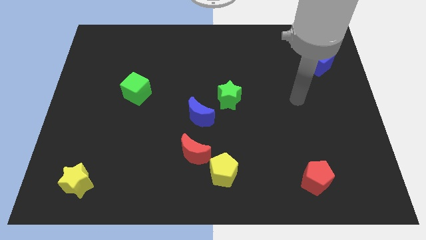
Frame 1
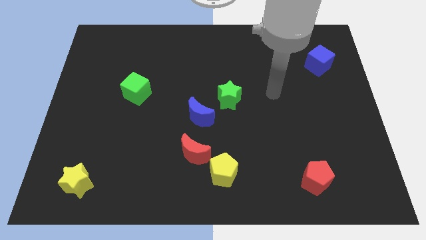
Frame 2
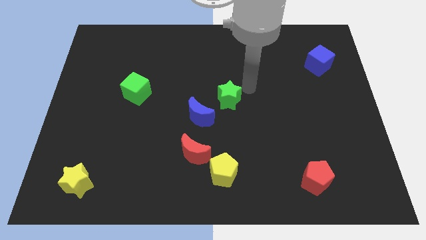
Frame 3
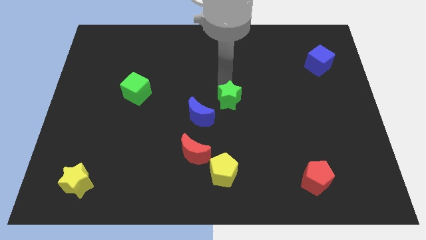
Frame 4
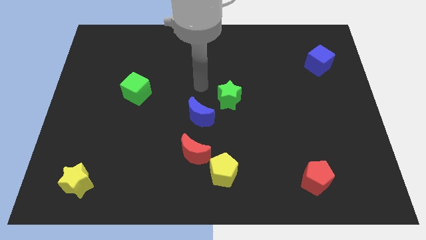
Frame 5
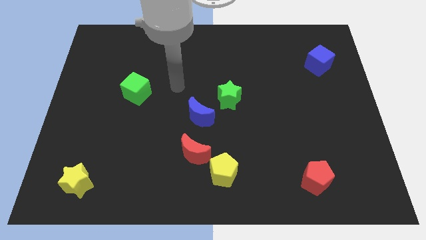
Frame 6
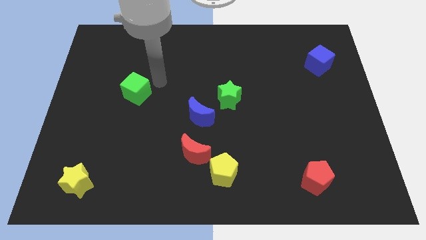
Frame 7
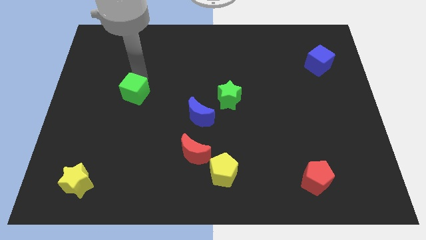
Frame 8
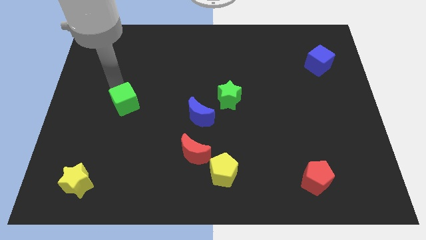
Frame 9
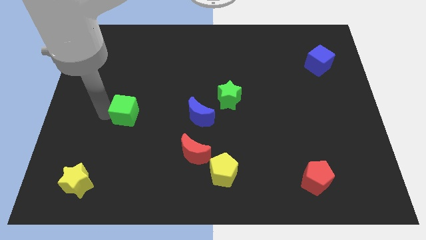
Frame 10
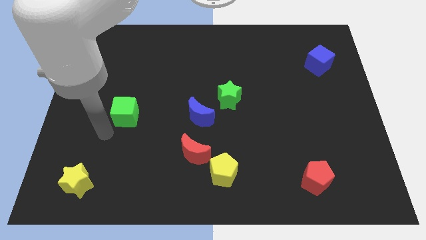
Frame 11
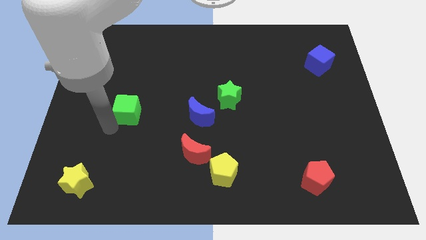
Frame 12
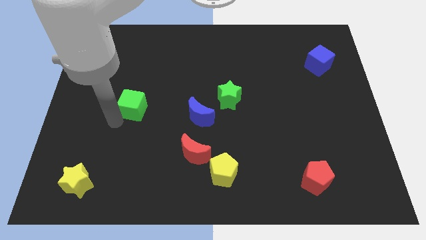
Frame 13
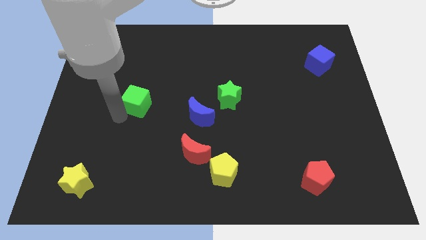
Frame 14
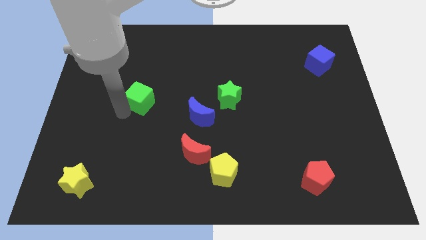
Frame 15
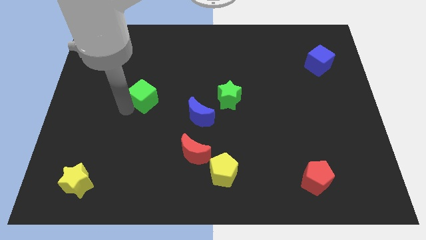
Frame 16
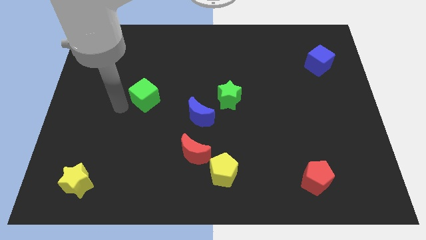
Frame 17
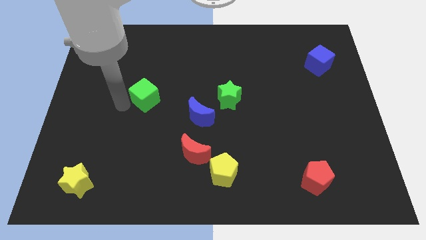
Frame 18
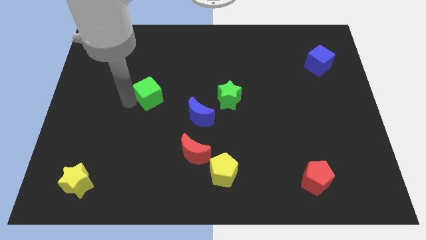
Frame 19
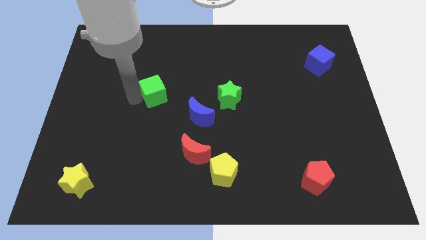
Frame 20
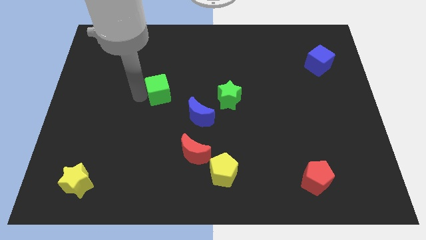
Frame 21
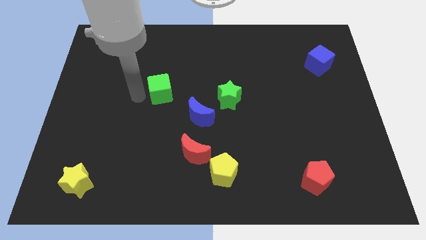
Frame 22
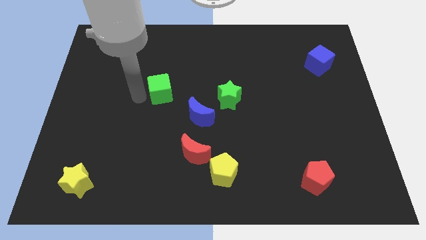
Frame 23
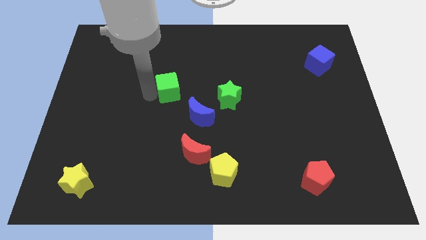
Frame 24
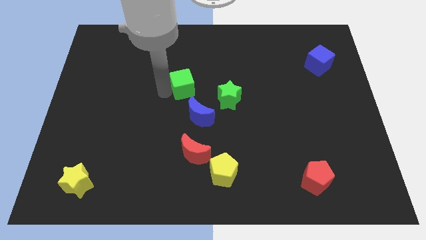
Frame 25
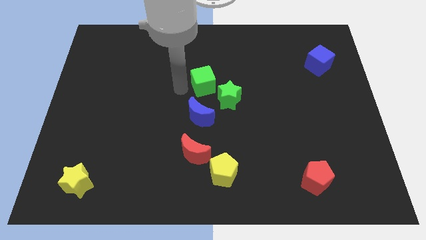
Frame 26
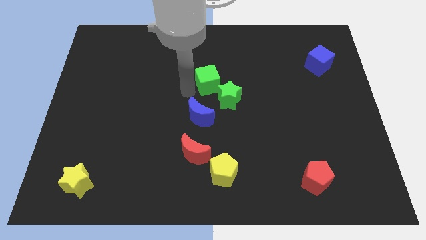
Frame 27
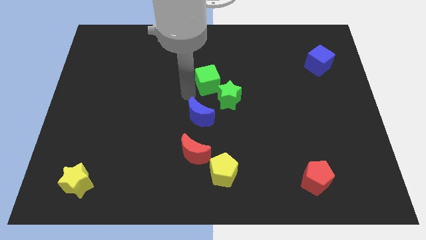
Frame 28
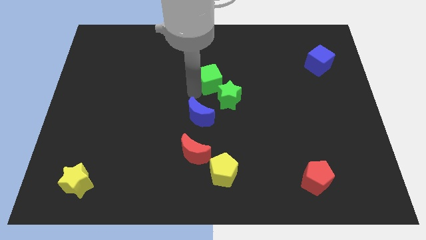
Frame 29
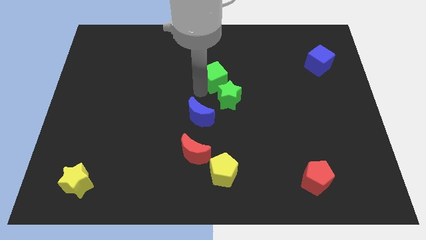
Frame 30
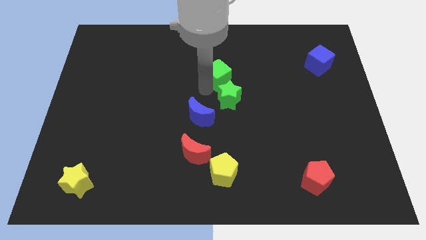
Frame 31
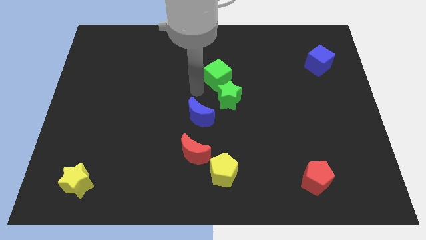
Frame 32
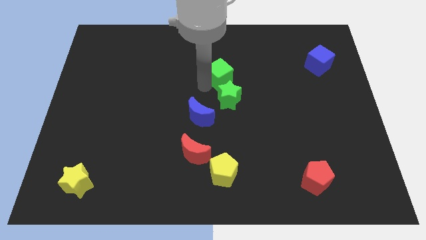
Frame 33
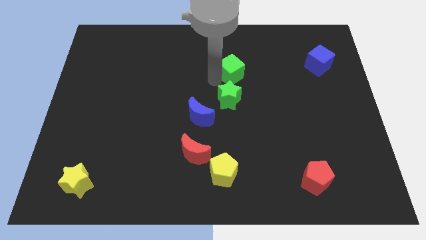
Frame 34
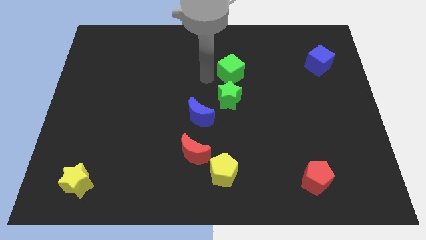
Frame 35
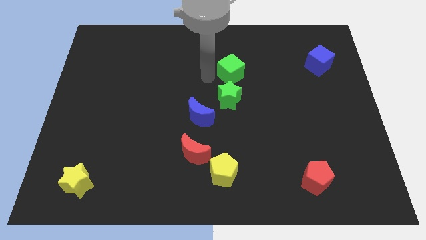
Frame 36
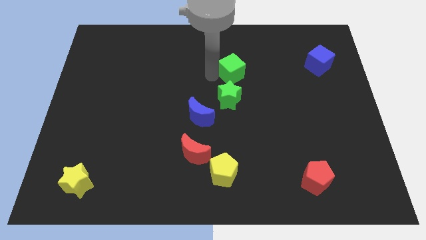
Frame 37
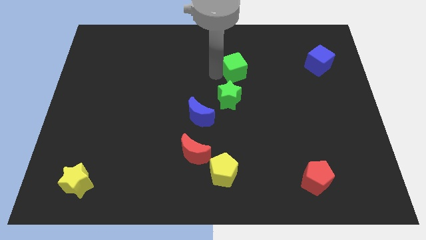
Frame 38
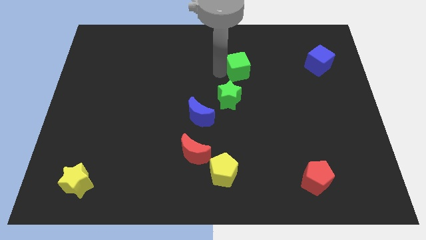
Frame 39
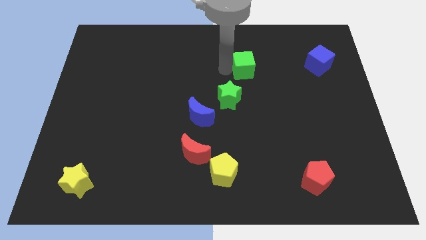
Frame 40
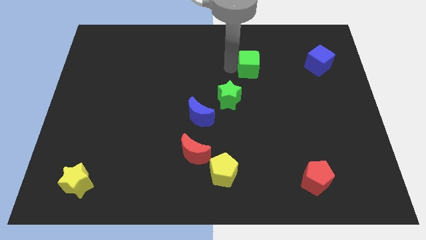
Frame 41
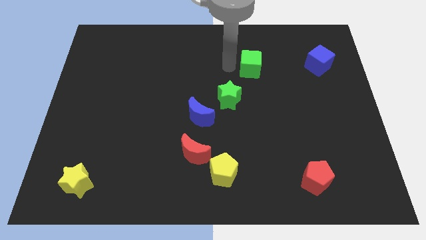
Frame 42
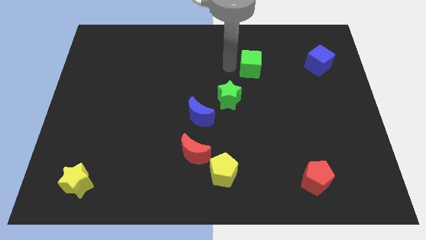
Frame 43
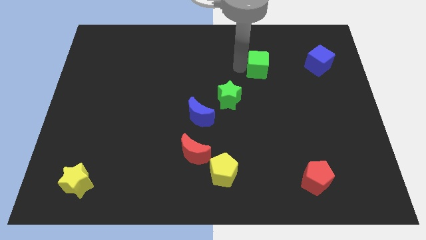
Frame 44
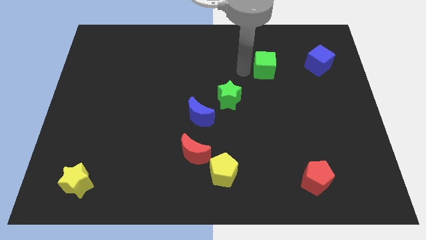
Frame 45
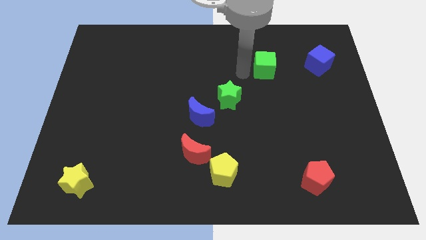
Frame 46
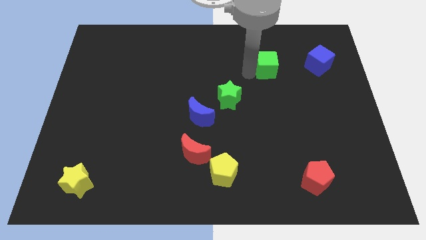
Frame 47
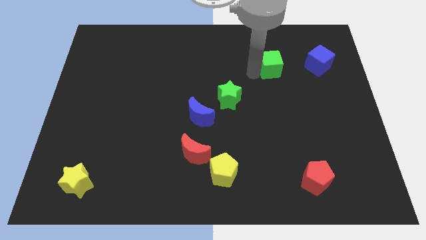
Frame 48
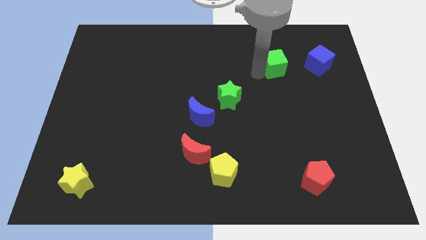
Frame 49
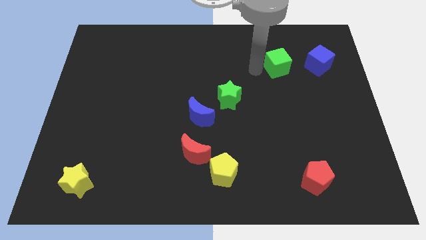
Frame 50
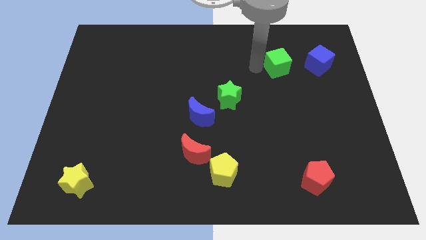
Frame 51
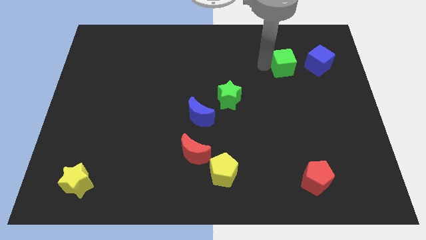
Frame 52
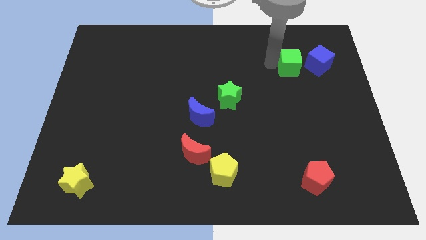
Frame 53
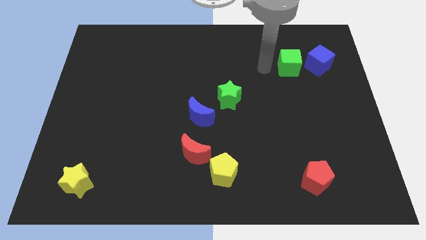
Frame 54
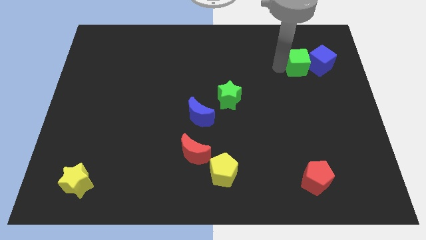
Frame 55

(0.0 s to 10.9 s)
slide the green cube close to the blue cube

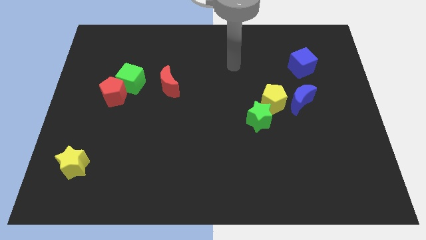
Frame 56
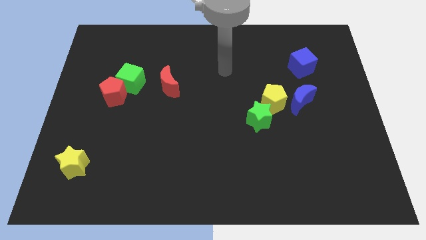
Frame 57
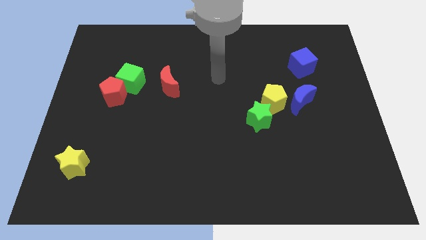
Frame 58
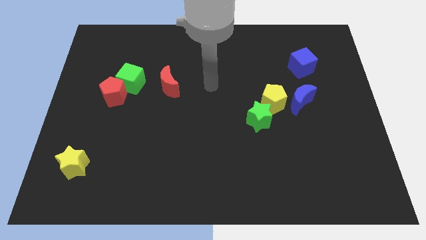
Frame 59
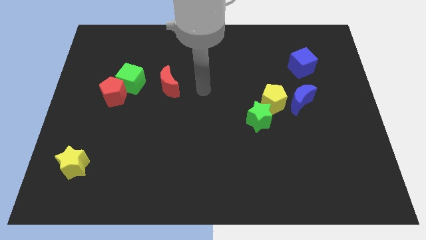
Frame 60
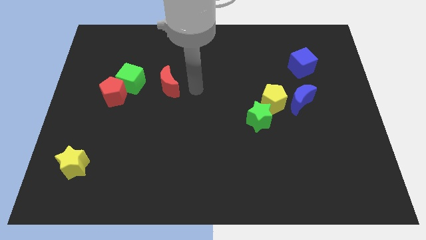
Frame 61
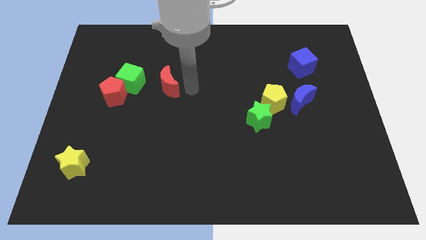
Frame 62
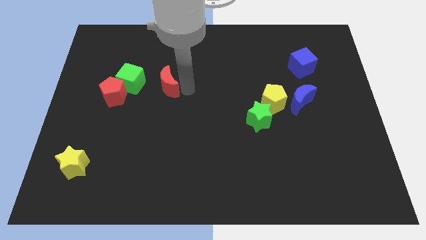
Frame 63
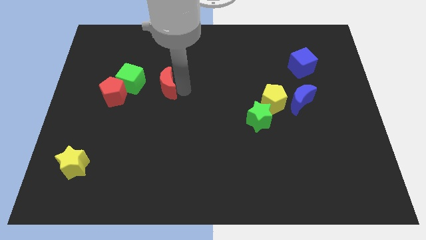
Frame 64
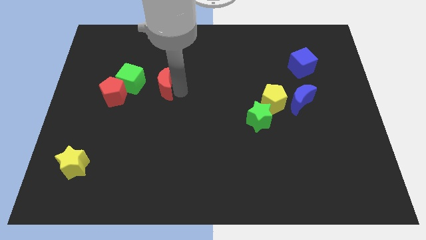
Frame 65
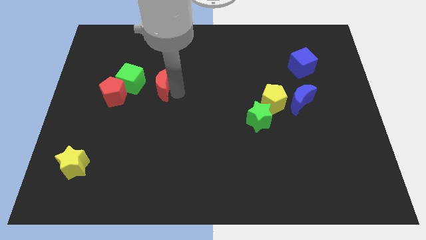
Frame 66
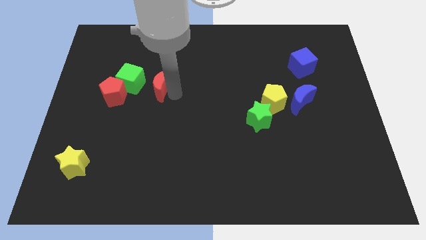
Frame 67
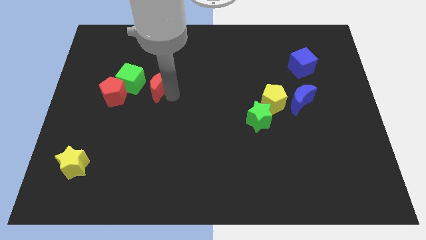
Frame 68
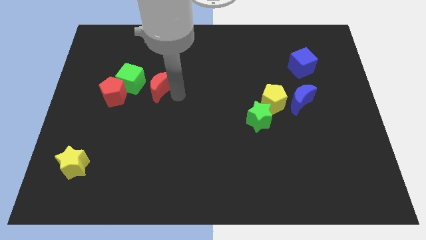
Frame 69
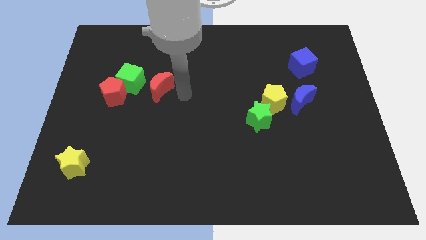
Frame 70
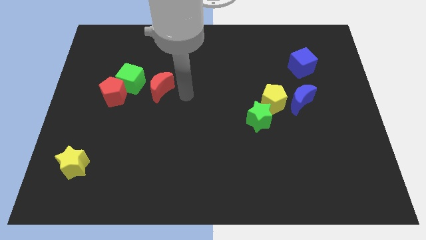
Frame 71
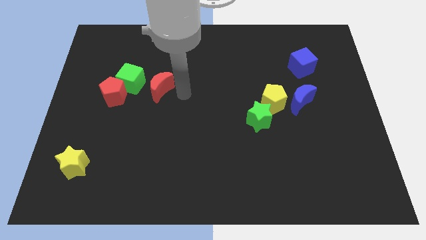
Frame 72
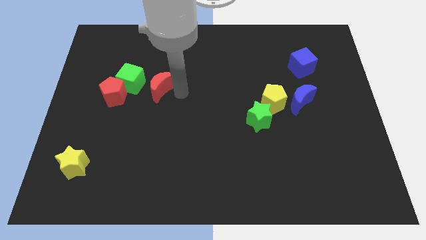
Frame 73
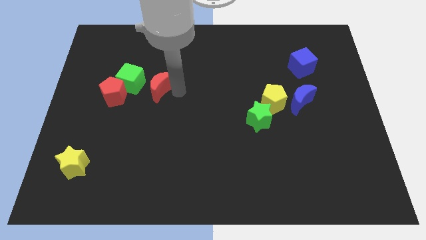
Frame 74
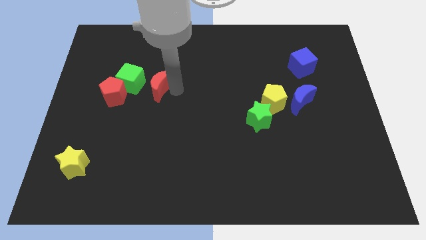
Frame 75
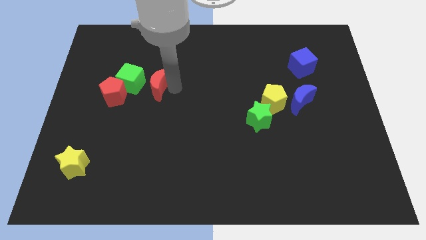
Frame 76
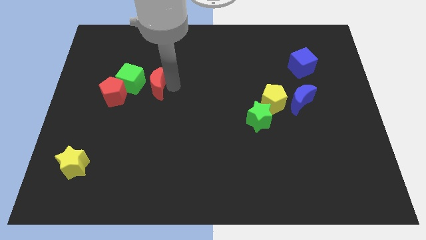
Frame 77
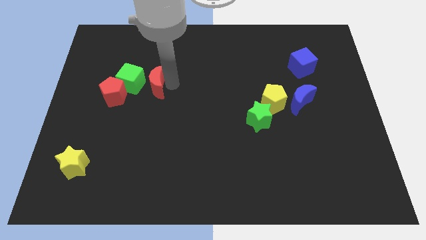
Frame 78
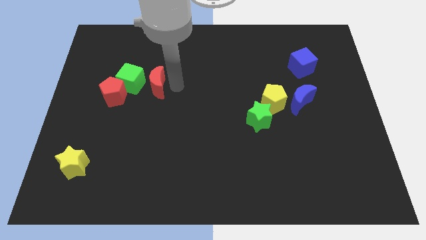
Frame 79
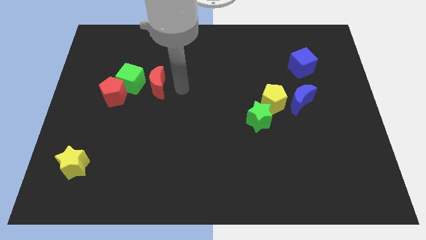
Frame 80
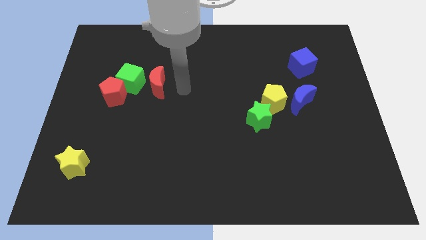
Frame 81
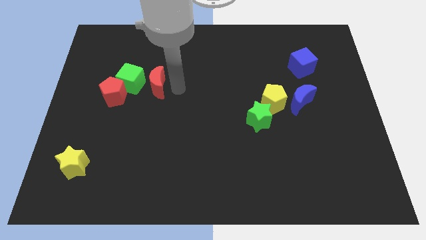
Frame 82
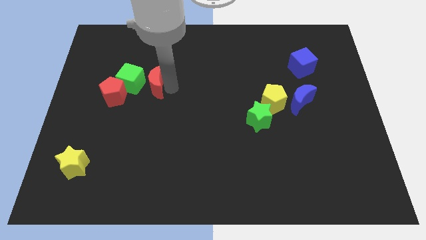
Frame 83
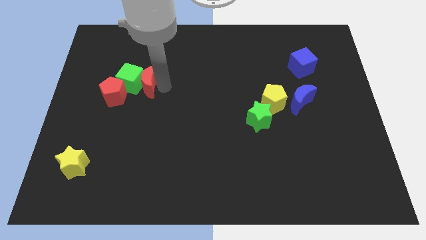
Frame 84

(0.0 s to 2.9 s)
put the red moon to the green cube
